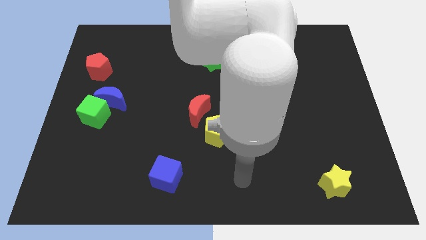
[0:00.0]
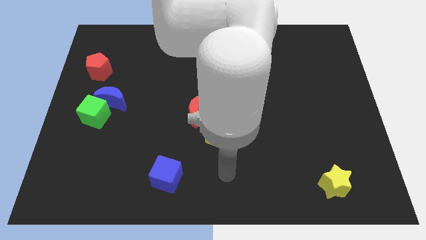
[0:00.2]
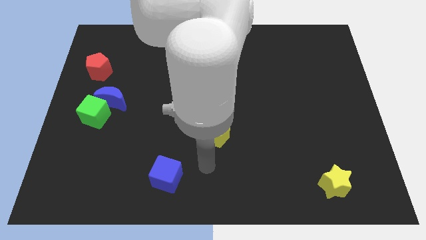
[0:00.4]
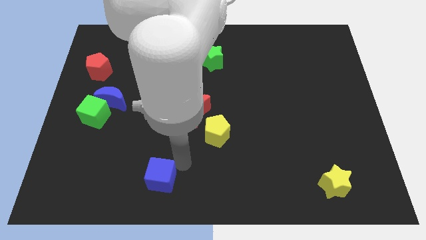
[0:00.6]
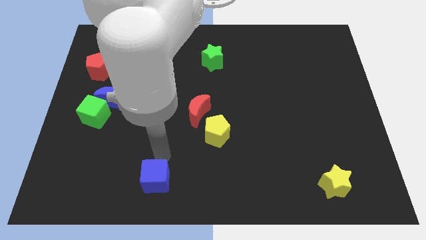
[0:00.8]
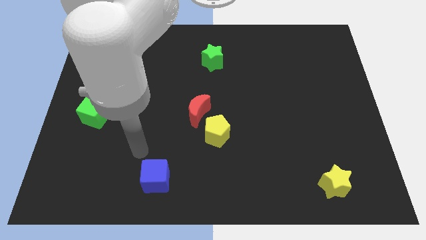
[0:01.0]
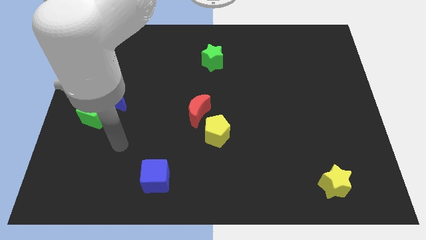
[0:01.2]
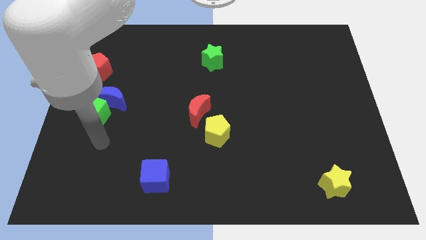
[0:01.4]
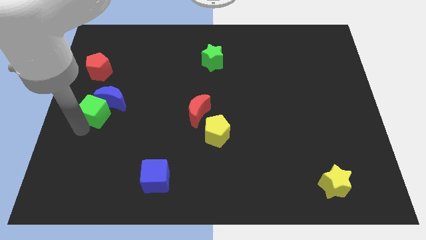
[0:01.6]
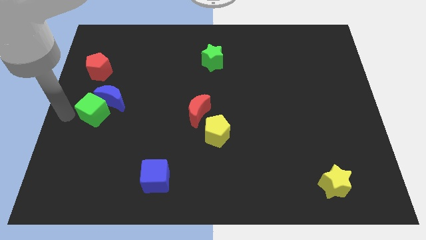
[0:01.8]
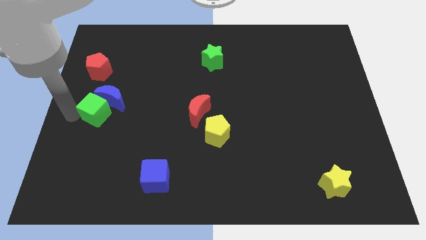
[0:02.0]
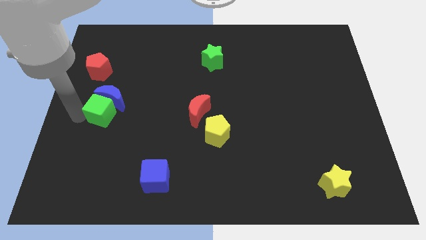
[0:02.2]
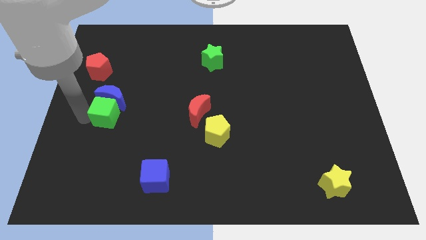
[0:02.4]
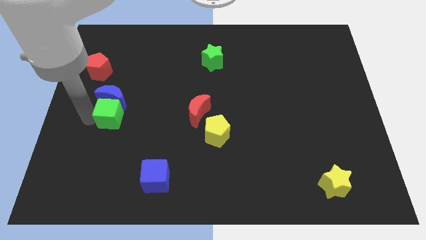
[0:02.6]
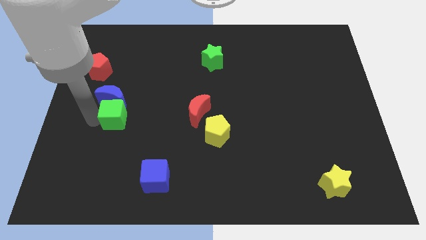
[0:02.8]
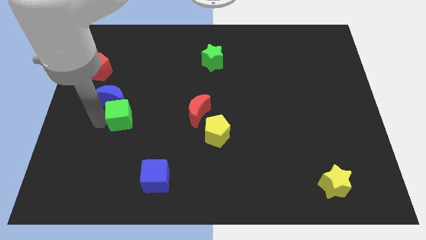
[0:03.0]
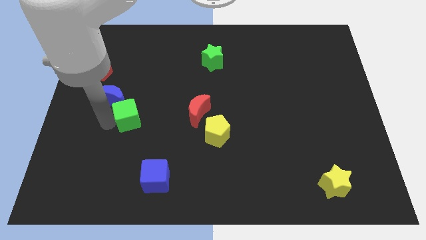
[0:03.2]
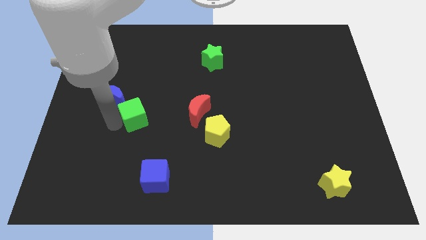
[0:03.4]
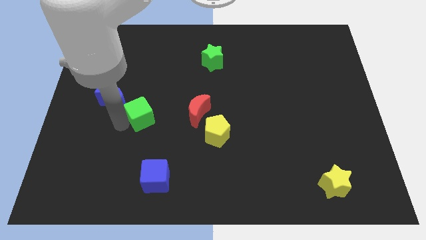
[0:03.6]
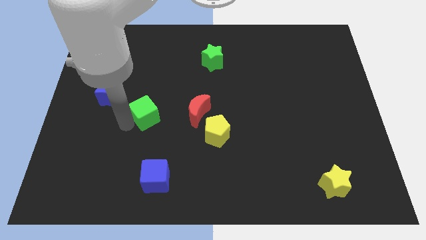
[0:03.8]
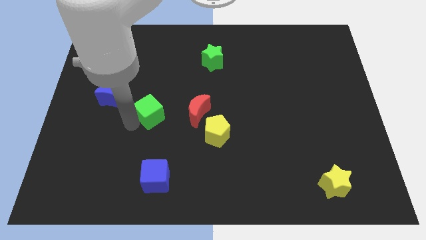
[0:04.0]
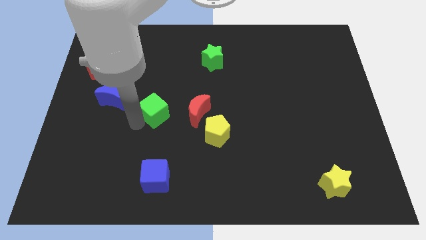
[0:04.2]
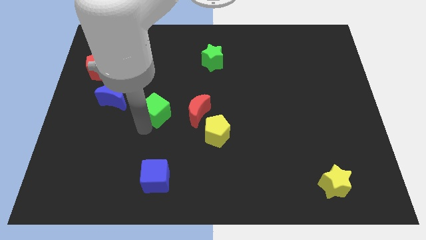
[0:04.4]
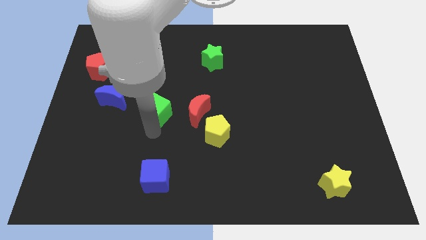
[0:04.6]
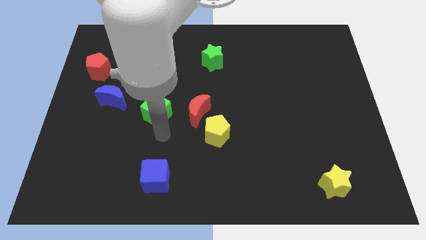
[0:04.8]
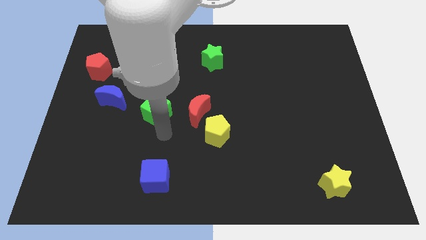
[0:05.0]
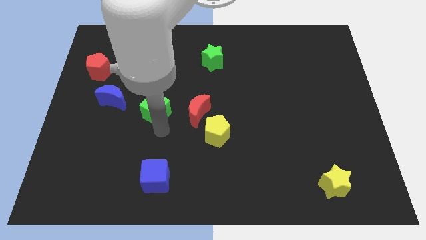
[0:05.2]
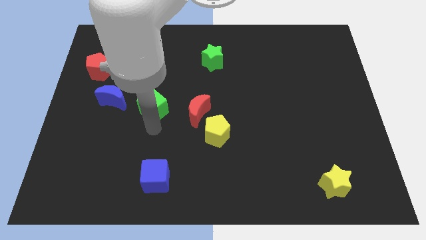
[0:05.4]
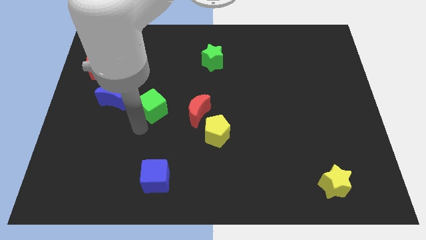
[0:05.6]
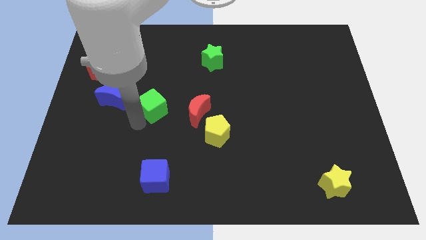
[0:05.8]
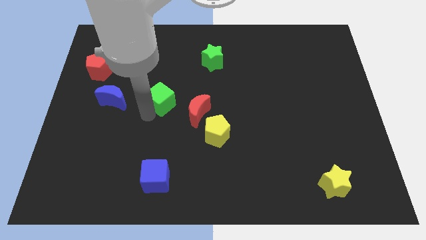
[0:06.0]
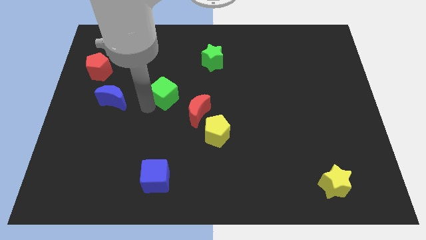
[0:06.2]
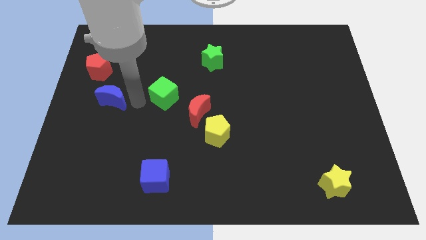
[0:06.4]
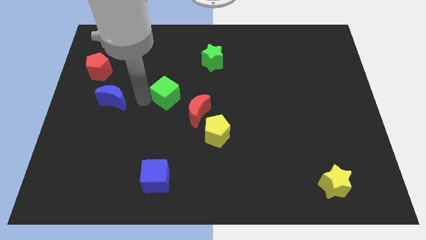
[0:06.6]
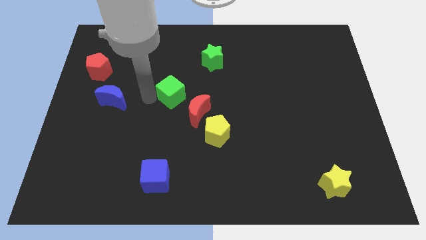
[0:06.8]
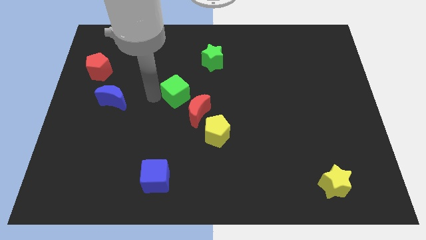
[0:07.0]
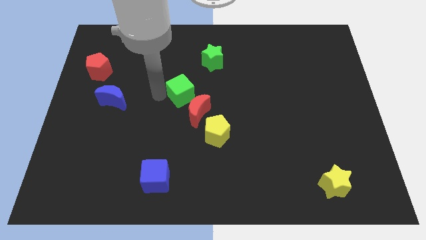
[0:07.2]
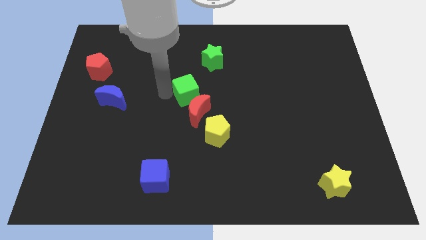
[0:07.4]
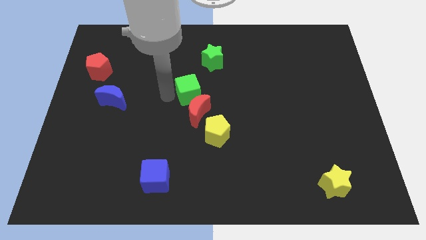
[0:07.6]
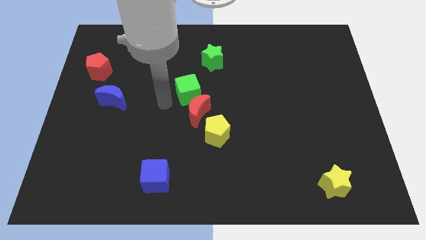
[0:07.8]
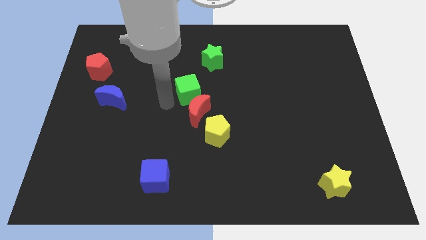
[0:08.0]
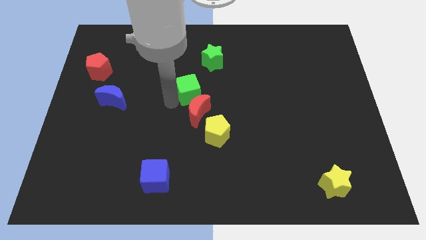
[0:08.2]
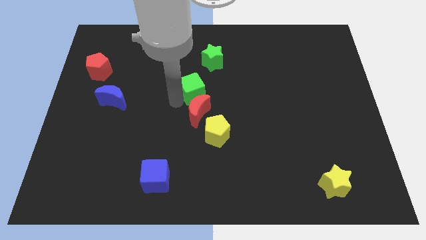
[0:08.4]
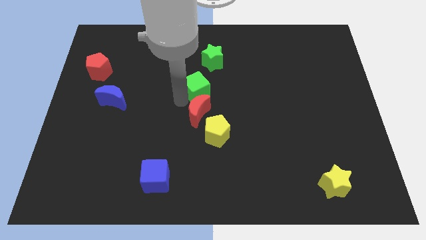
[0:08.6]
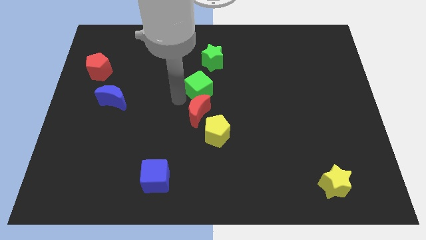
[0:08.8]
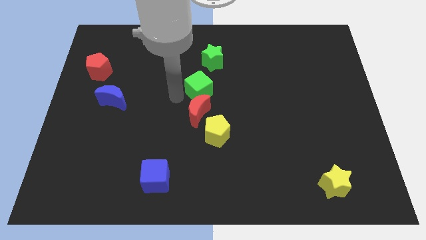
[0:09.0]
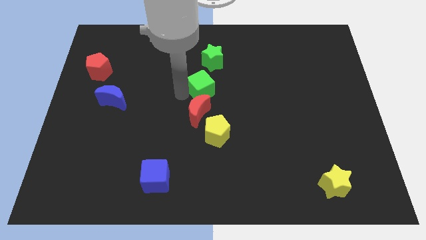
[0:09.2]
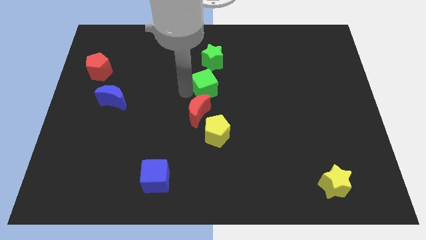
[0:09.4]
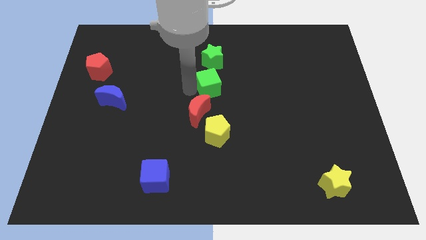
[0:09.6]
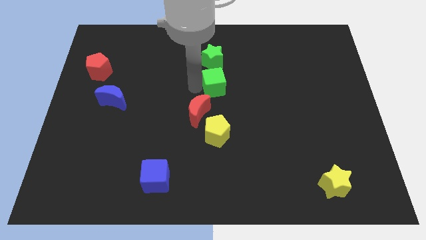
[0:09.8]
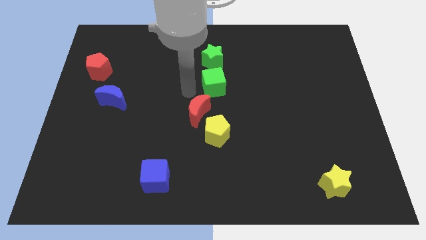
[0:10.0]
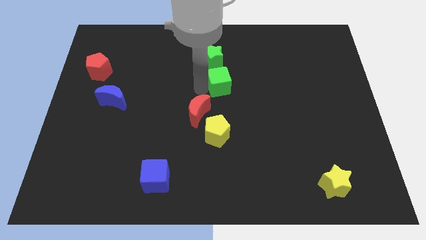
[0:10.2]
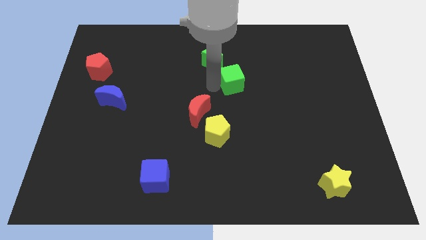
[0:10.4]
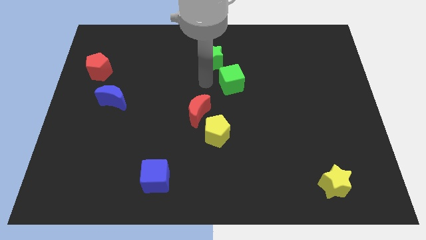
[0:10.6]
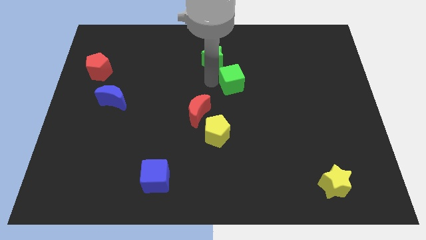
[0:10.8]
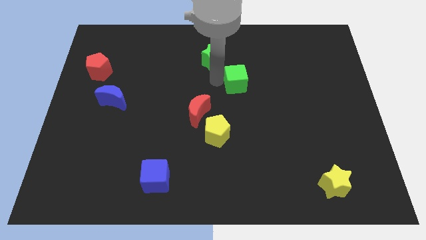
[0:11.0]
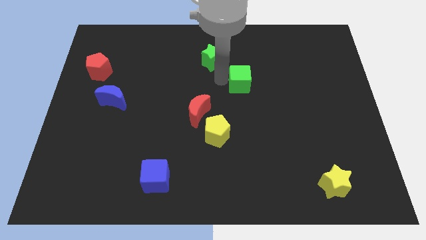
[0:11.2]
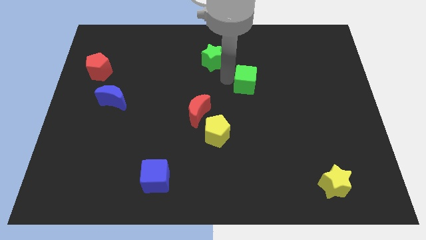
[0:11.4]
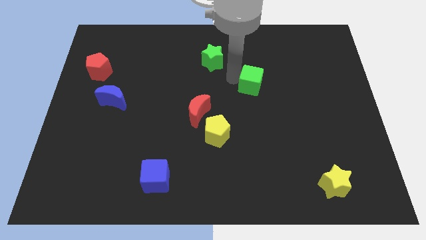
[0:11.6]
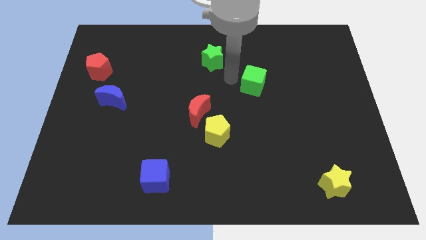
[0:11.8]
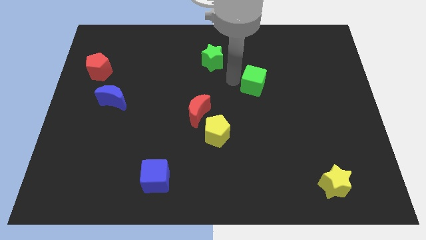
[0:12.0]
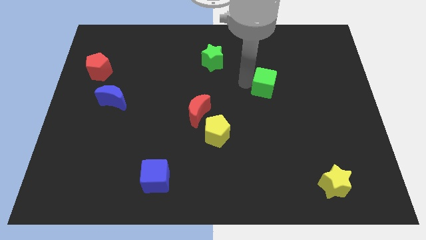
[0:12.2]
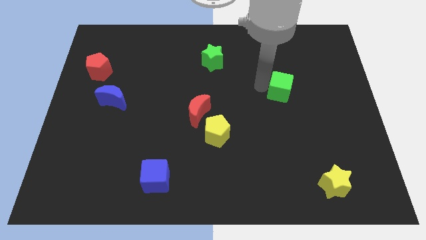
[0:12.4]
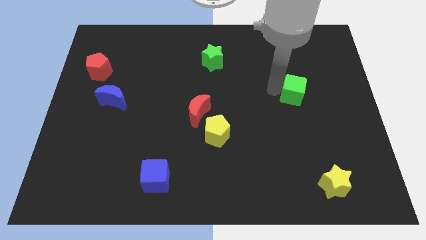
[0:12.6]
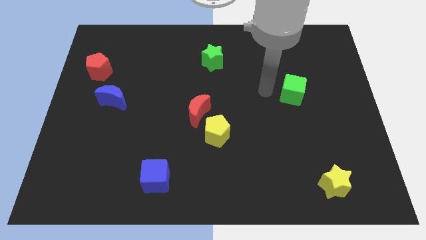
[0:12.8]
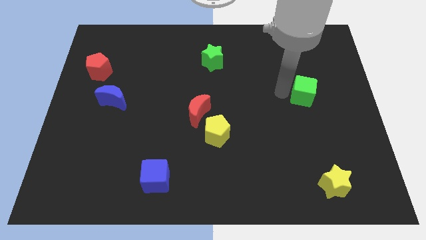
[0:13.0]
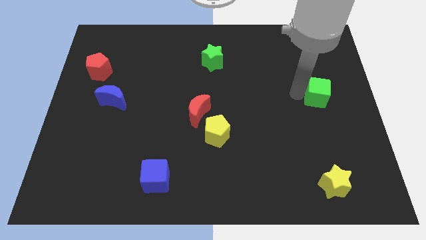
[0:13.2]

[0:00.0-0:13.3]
slide the green cube to the center right
